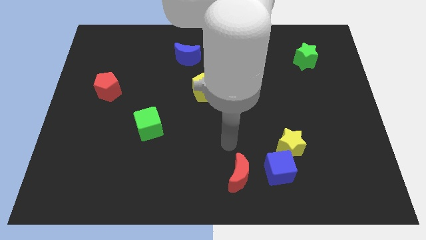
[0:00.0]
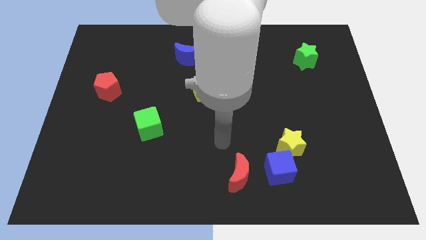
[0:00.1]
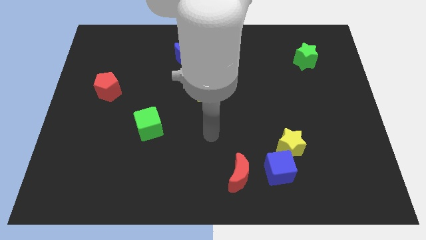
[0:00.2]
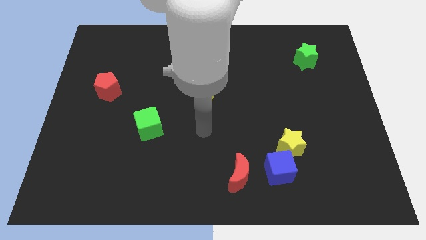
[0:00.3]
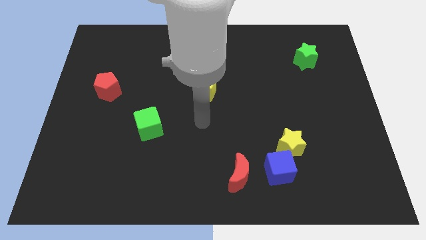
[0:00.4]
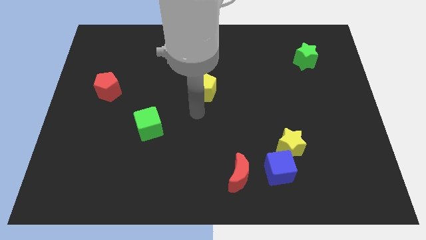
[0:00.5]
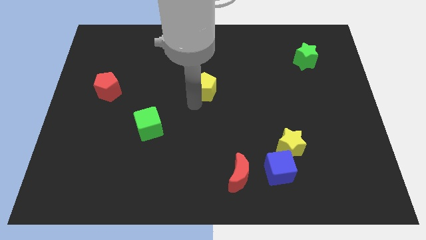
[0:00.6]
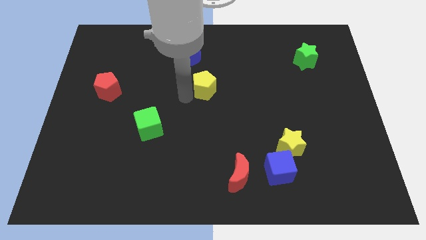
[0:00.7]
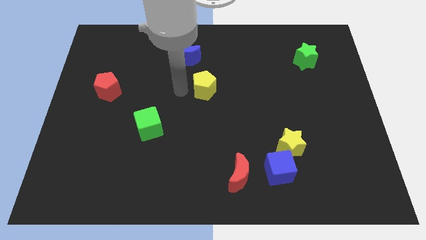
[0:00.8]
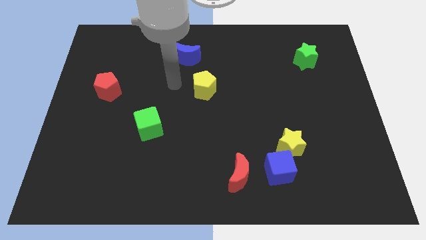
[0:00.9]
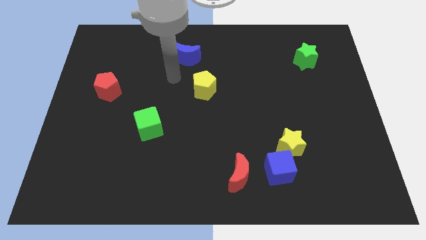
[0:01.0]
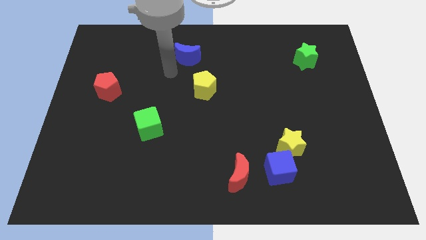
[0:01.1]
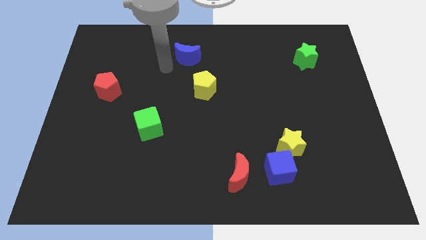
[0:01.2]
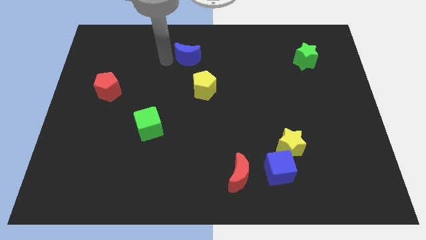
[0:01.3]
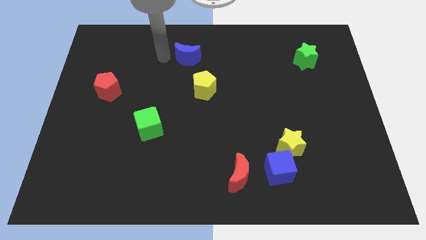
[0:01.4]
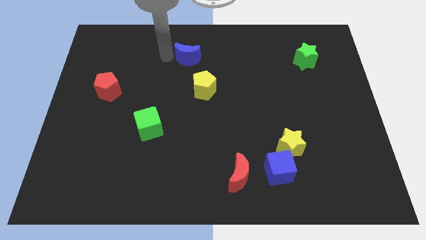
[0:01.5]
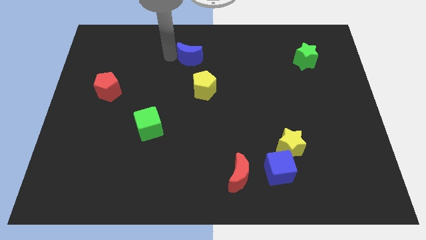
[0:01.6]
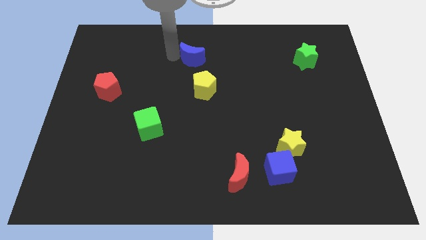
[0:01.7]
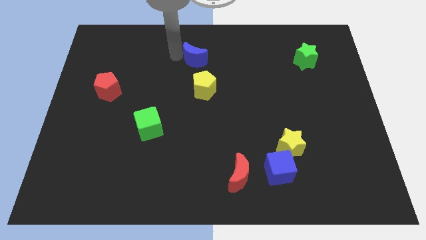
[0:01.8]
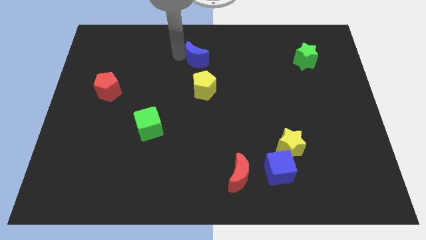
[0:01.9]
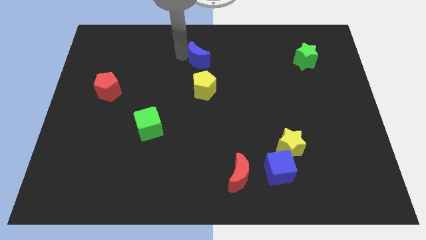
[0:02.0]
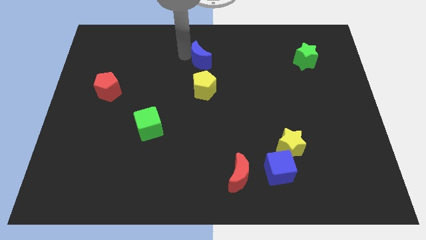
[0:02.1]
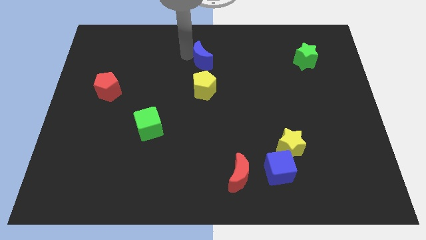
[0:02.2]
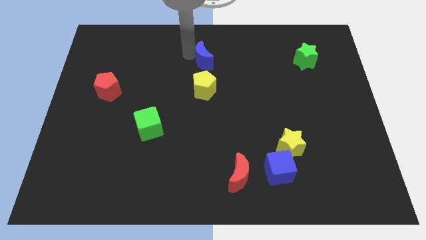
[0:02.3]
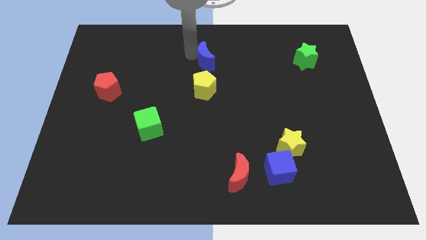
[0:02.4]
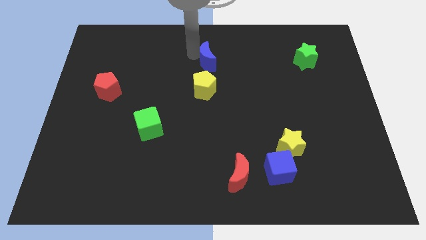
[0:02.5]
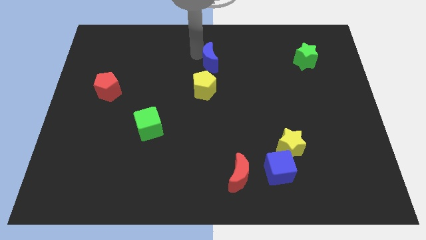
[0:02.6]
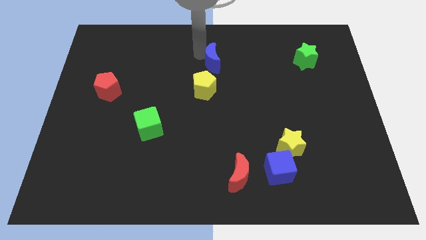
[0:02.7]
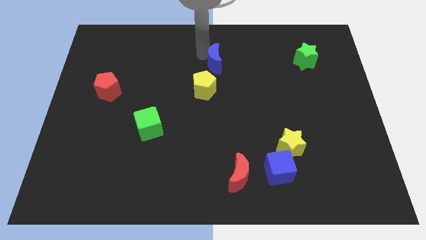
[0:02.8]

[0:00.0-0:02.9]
slide the blue moon right a bit

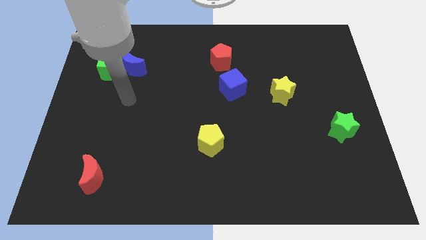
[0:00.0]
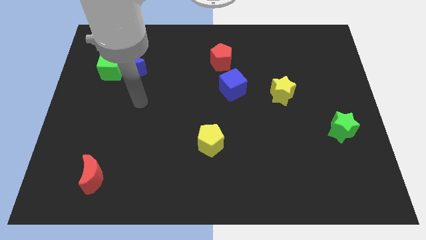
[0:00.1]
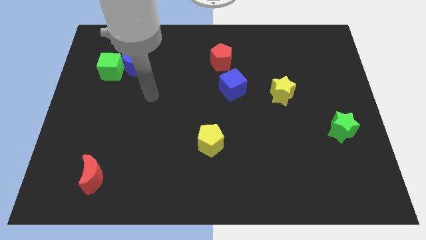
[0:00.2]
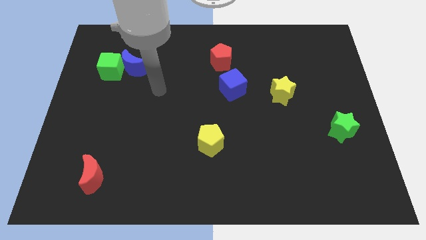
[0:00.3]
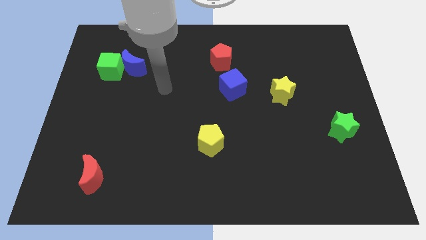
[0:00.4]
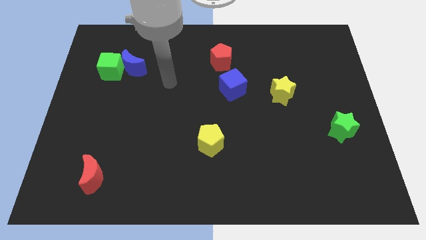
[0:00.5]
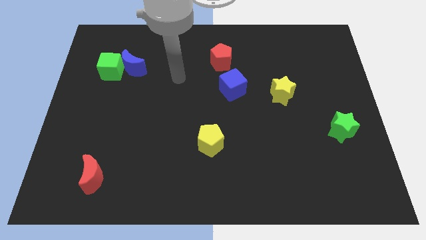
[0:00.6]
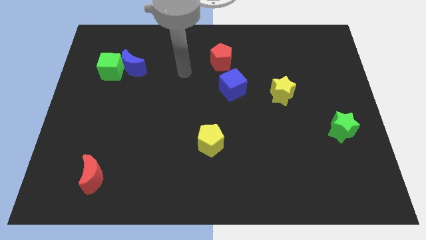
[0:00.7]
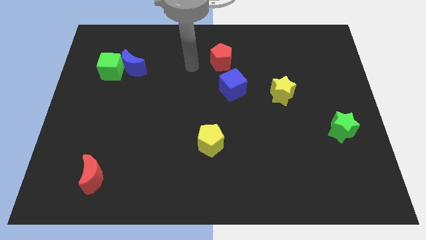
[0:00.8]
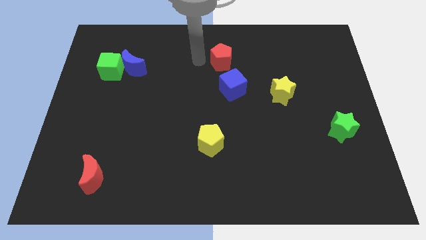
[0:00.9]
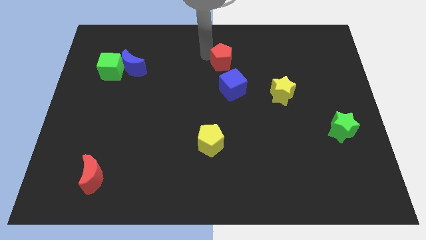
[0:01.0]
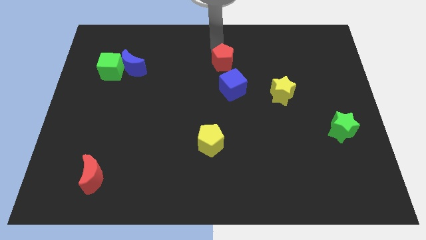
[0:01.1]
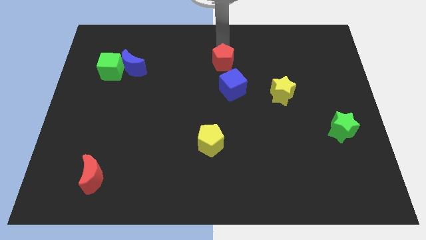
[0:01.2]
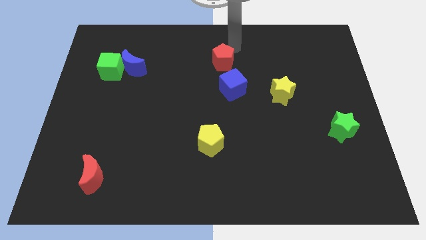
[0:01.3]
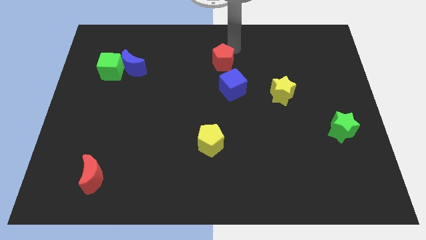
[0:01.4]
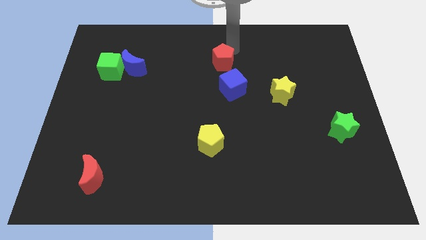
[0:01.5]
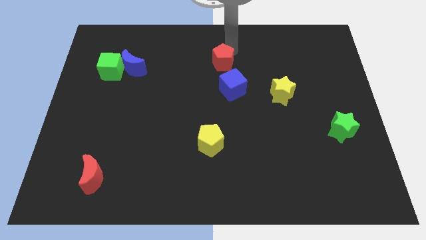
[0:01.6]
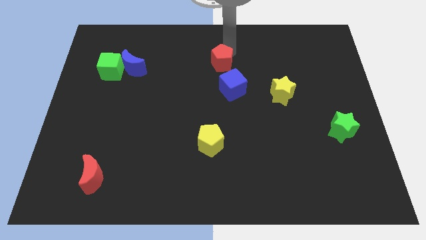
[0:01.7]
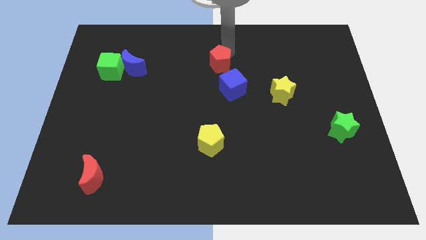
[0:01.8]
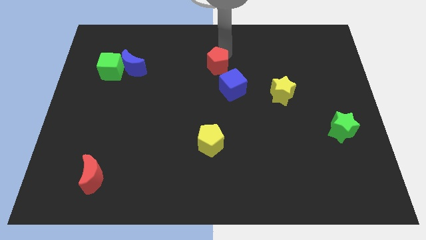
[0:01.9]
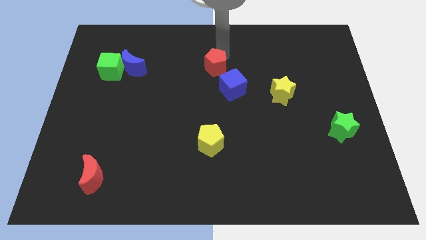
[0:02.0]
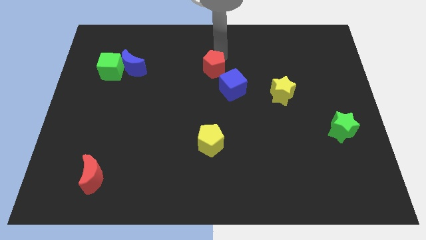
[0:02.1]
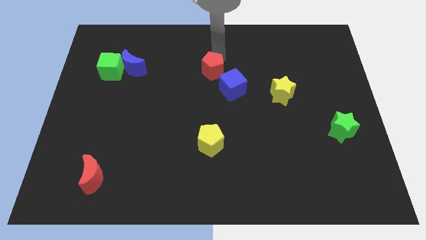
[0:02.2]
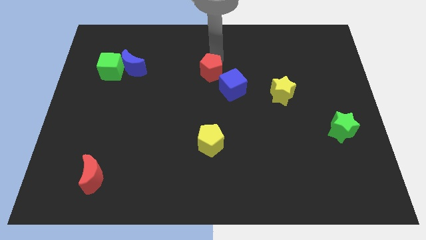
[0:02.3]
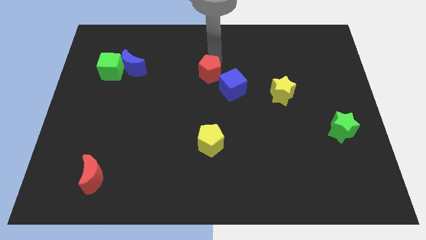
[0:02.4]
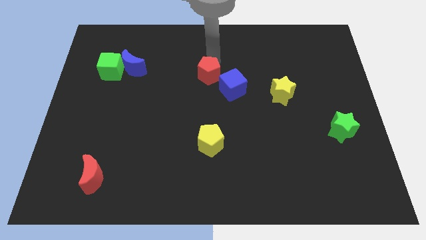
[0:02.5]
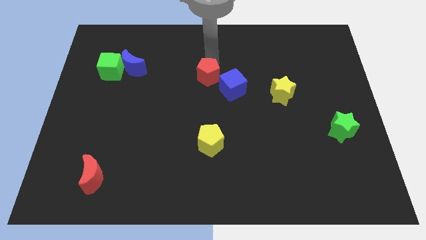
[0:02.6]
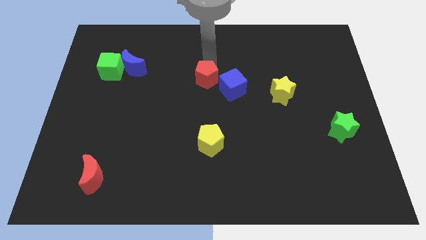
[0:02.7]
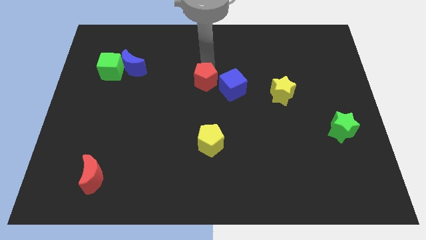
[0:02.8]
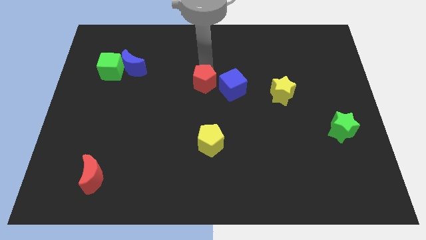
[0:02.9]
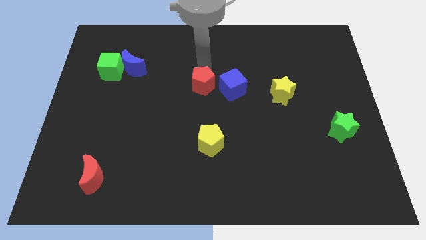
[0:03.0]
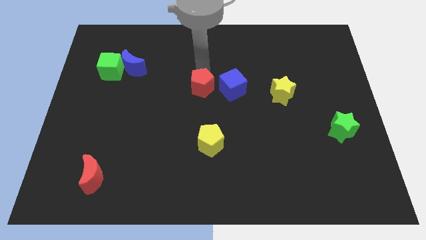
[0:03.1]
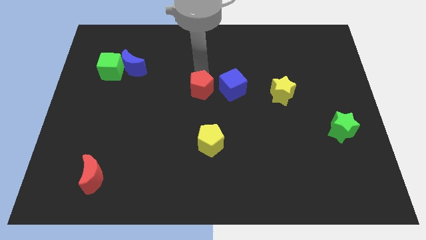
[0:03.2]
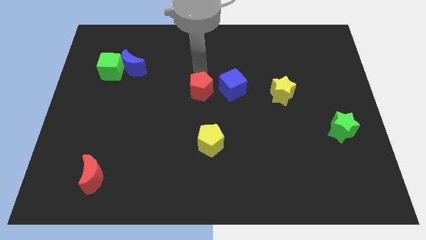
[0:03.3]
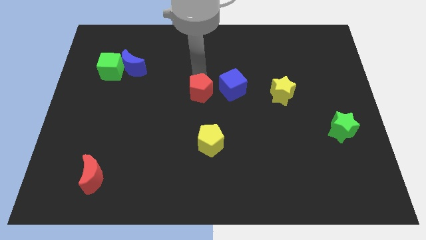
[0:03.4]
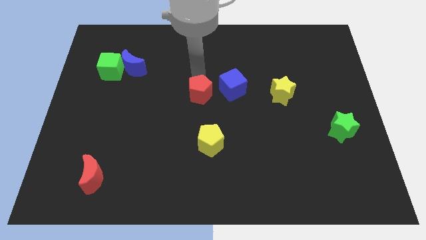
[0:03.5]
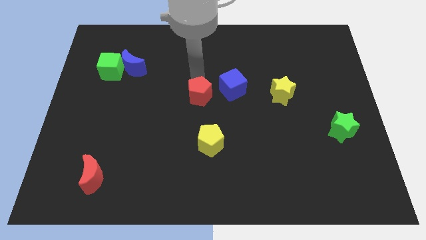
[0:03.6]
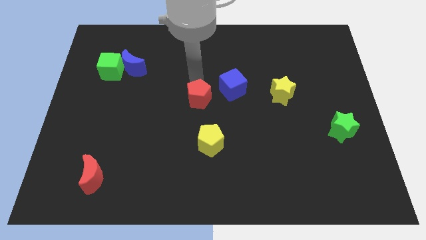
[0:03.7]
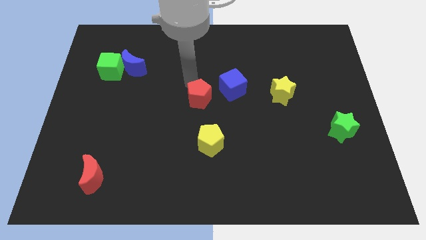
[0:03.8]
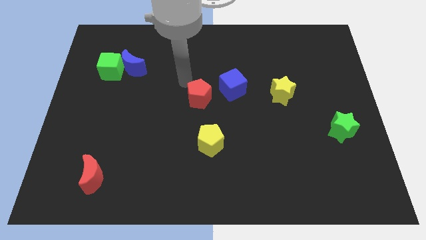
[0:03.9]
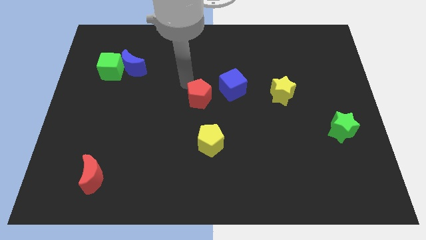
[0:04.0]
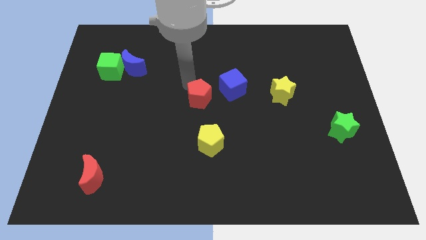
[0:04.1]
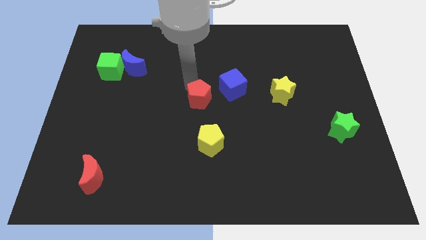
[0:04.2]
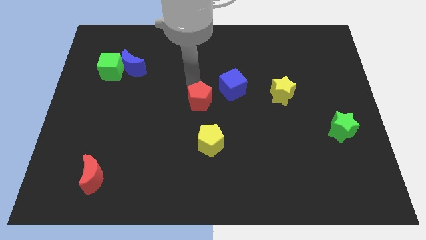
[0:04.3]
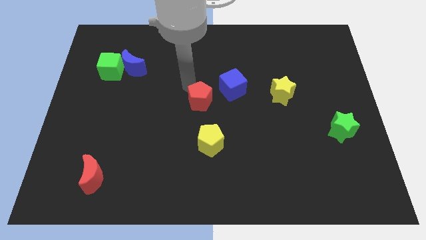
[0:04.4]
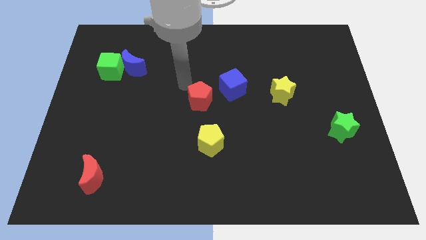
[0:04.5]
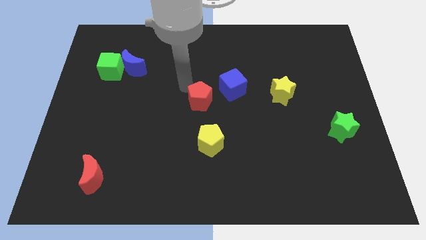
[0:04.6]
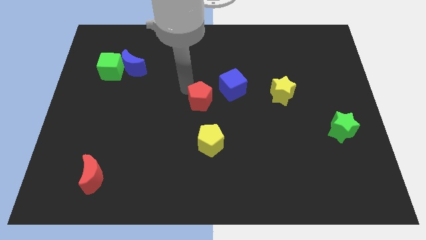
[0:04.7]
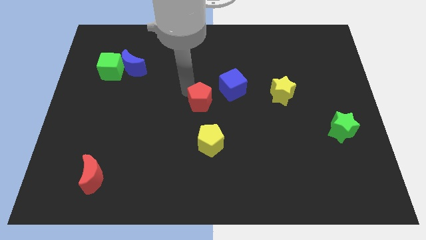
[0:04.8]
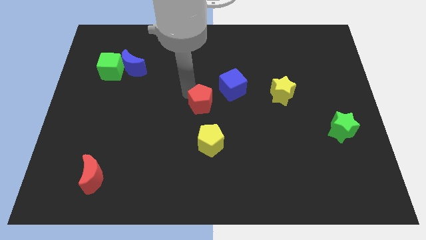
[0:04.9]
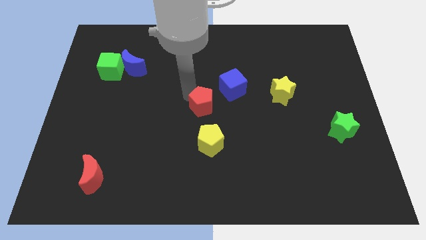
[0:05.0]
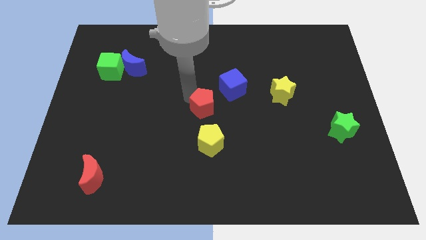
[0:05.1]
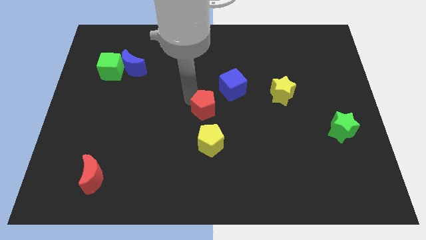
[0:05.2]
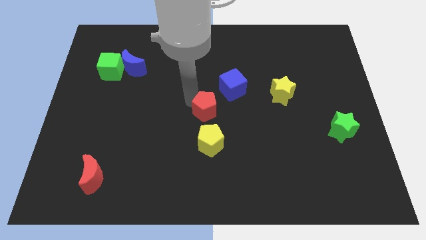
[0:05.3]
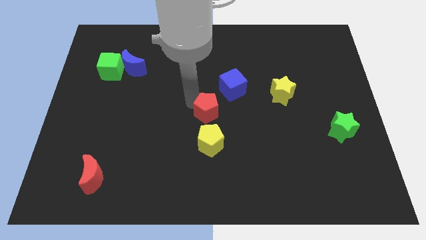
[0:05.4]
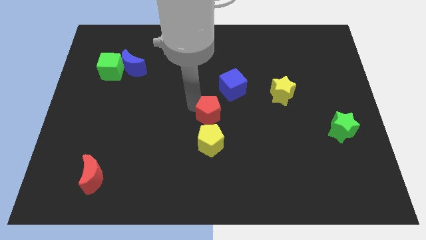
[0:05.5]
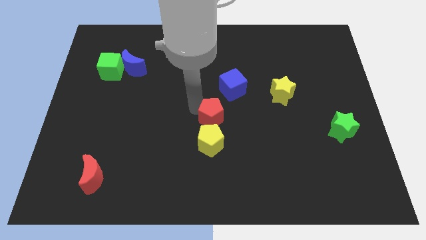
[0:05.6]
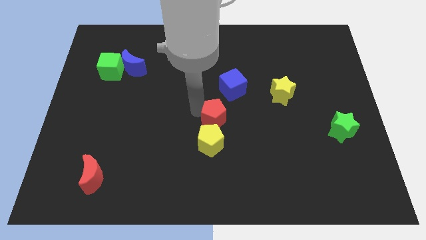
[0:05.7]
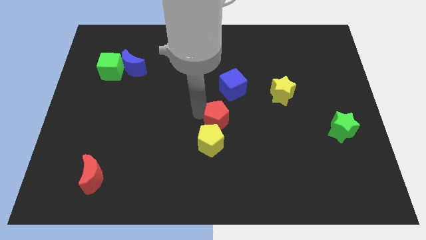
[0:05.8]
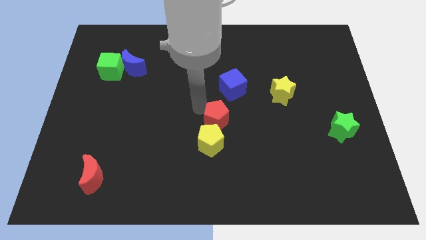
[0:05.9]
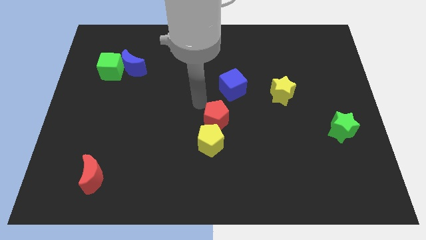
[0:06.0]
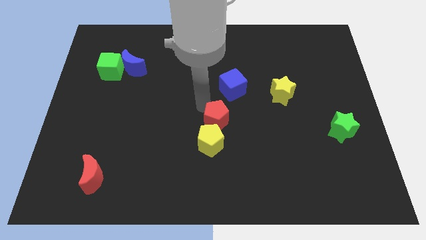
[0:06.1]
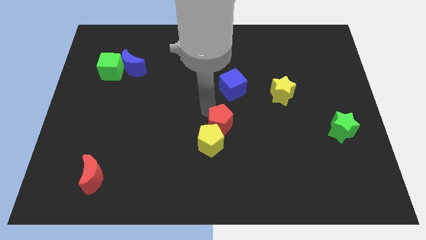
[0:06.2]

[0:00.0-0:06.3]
move the red pentagon downwards
